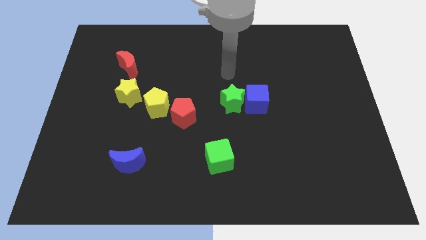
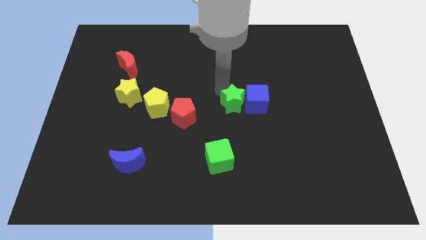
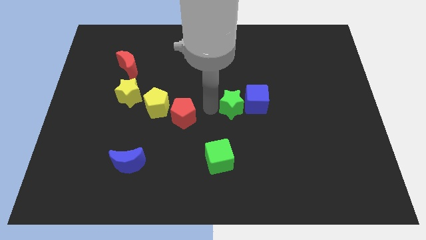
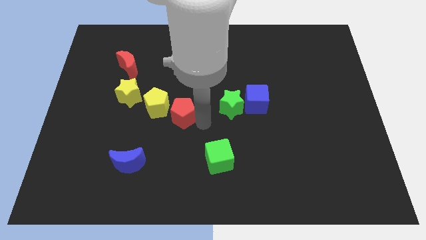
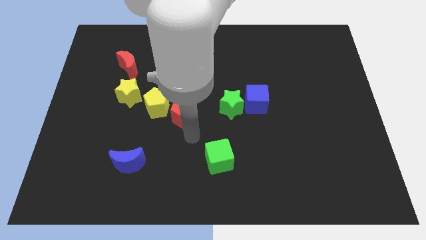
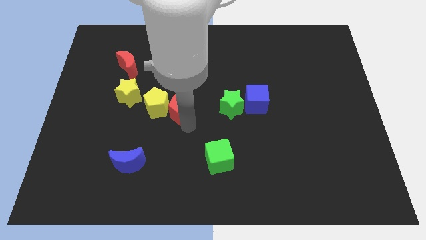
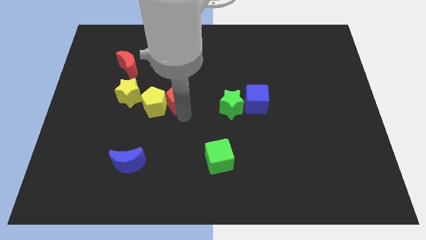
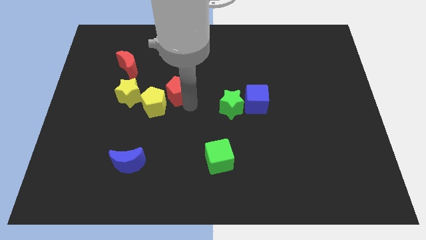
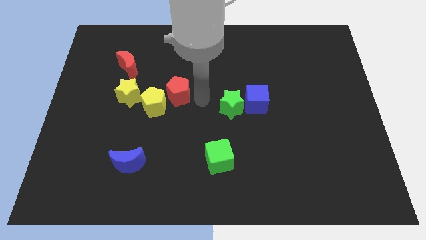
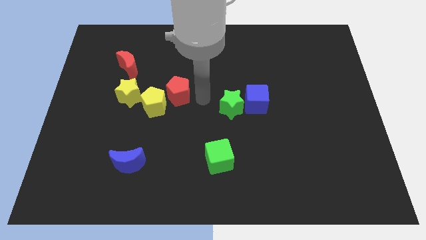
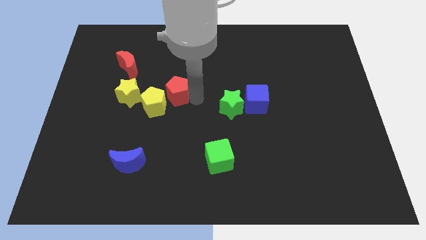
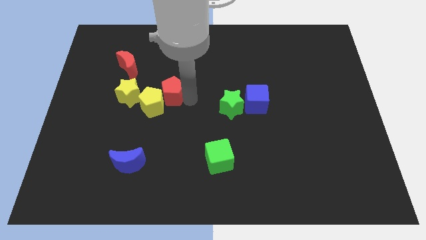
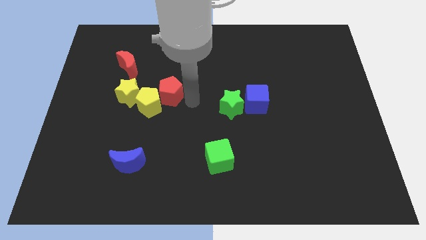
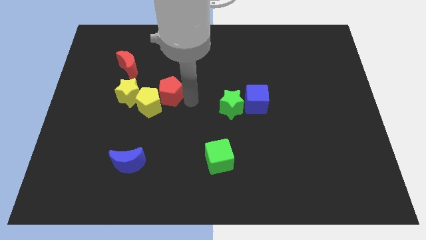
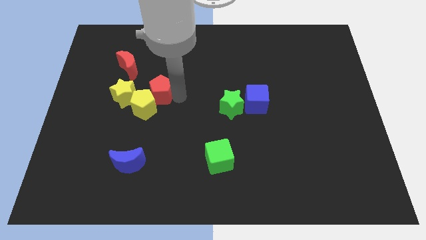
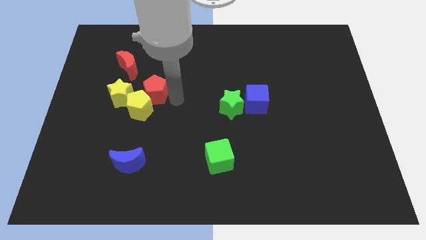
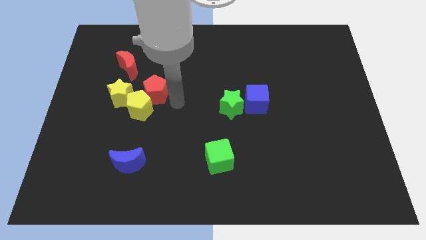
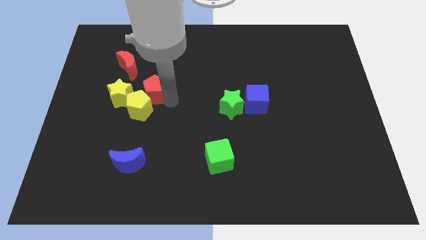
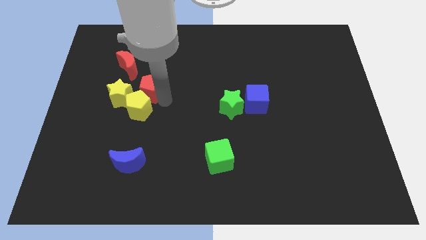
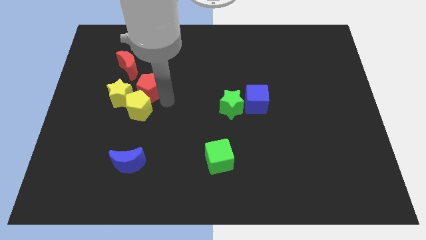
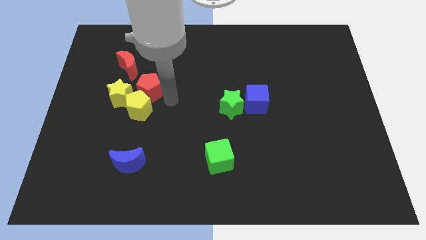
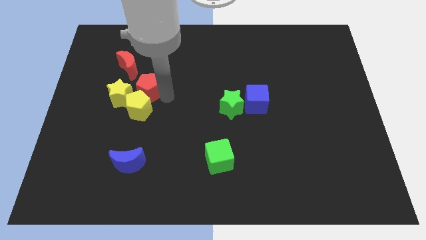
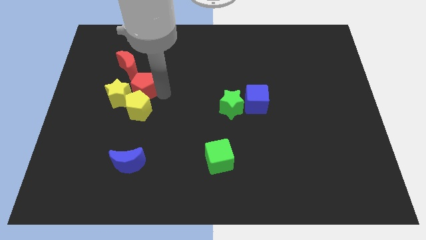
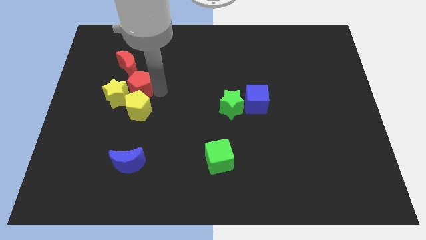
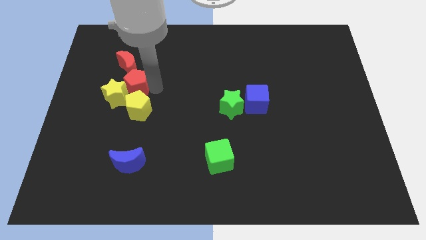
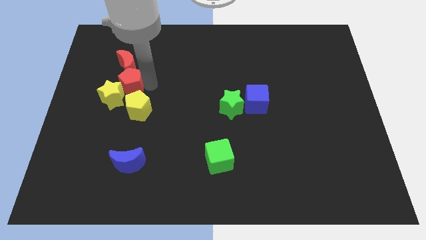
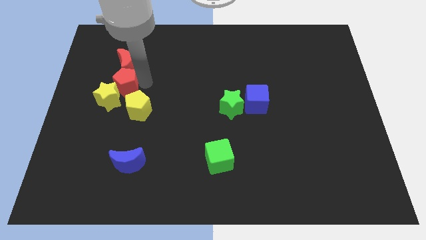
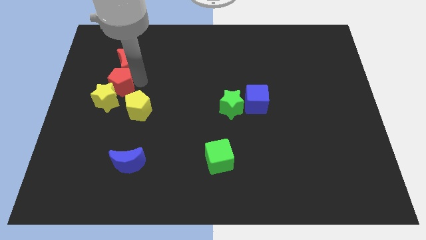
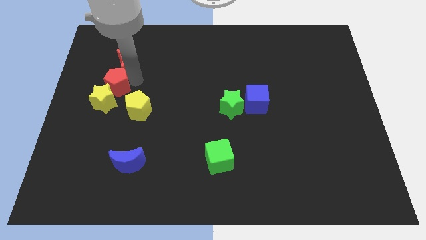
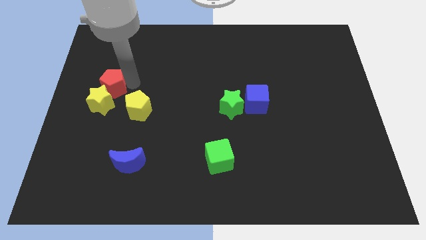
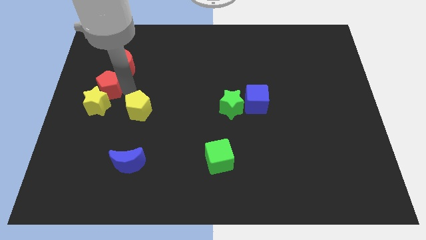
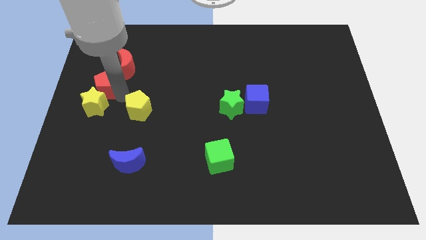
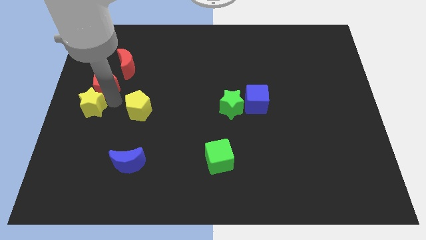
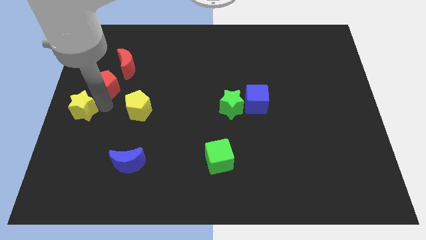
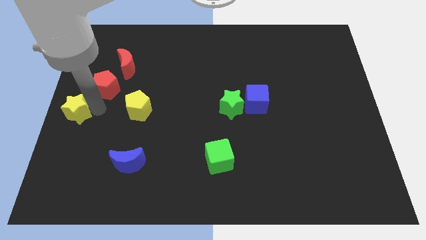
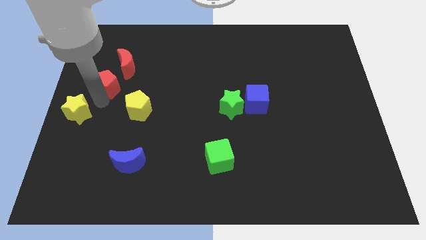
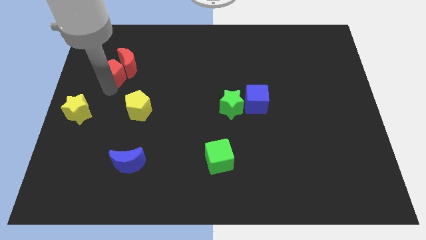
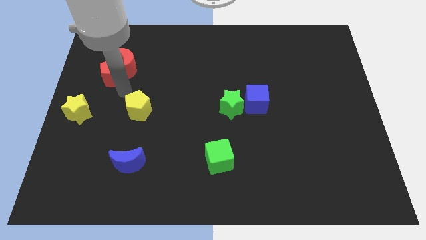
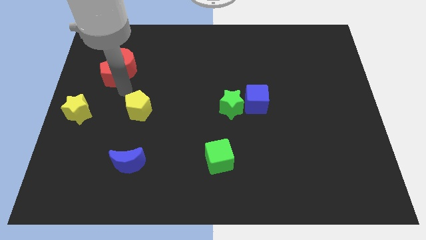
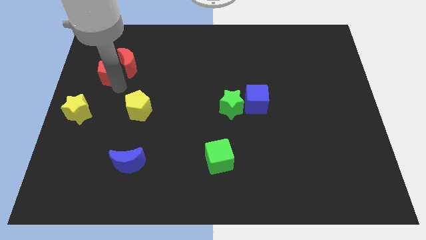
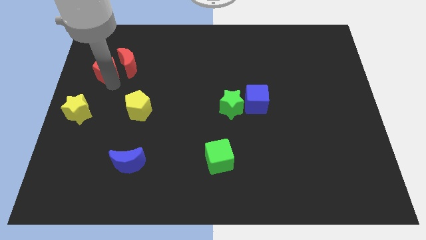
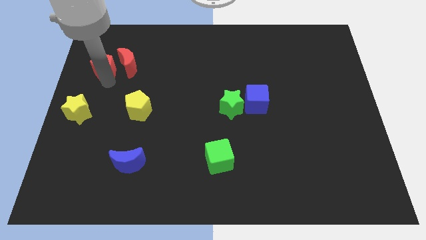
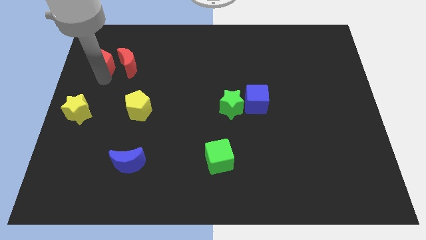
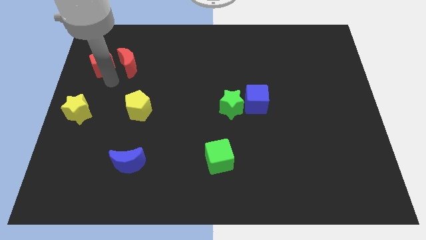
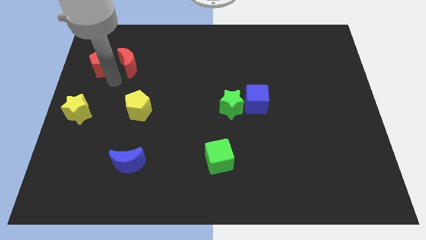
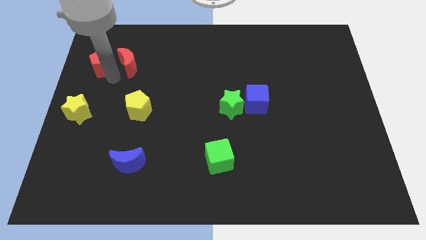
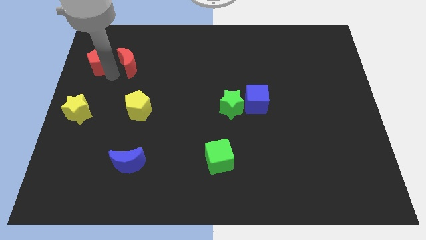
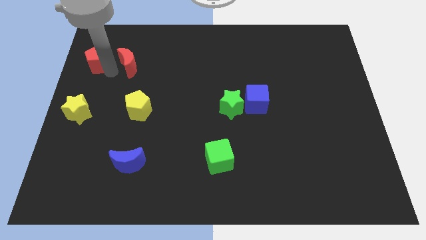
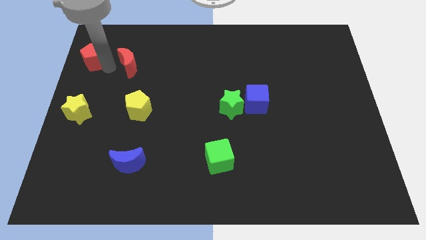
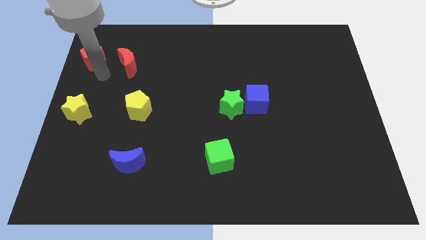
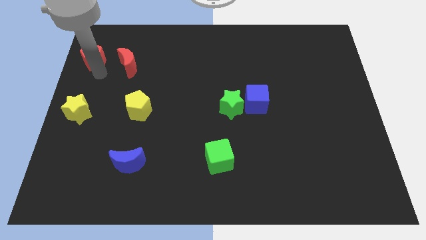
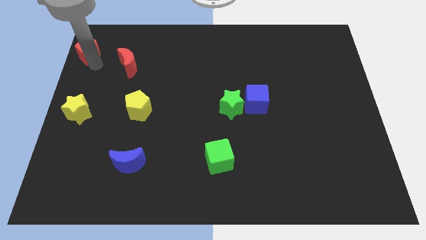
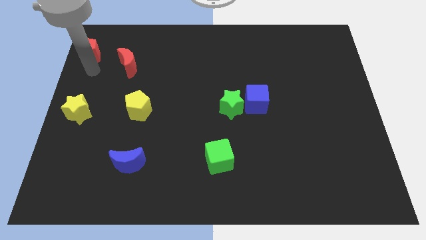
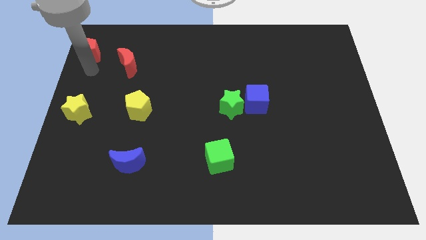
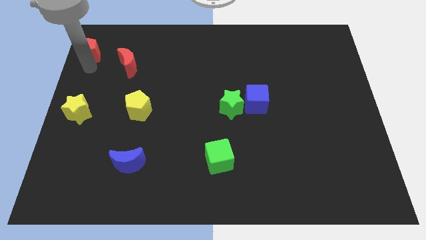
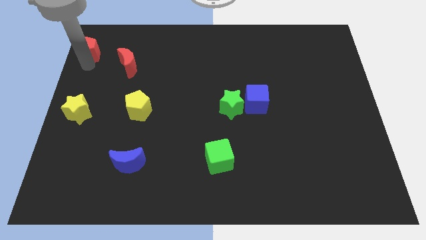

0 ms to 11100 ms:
push the red pentagon to the top left

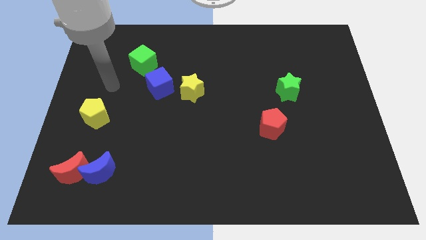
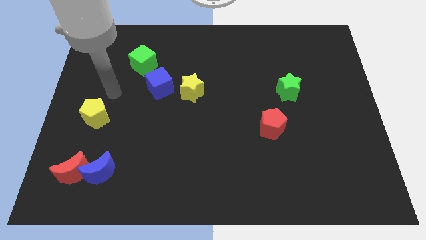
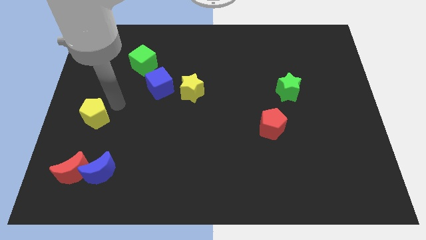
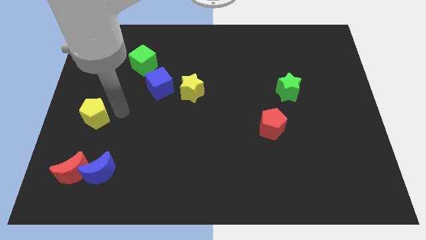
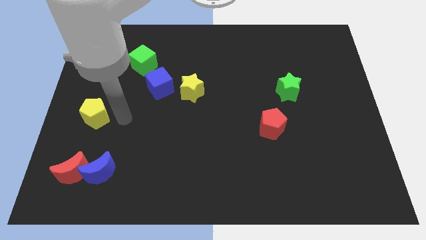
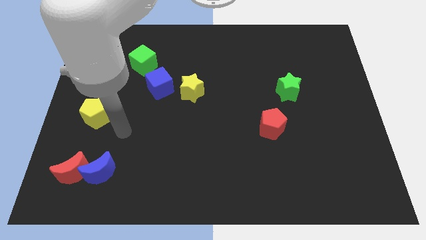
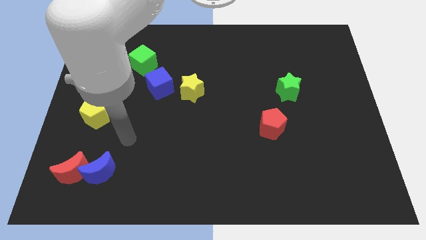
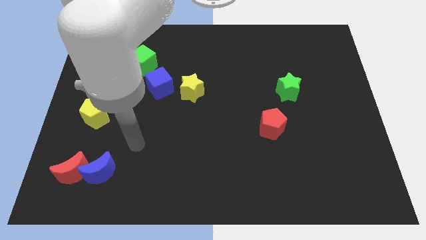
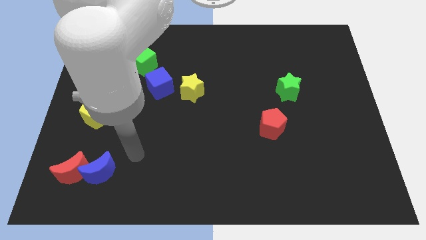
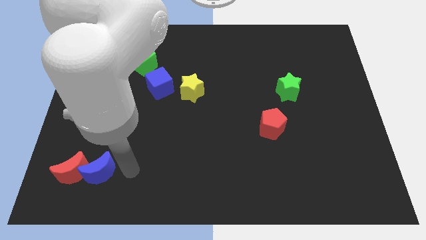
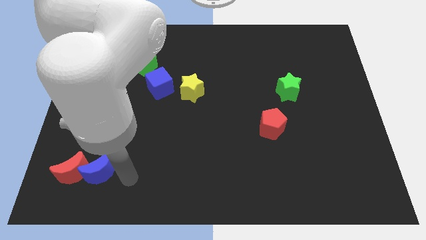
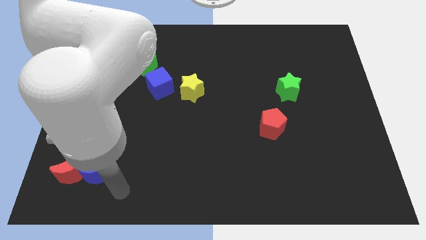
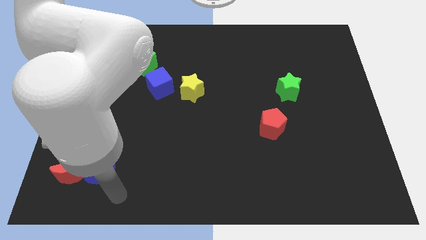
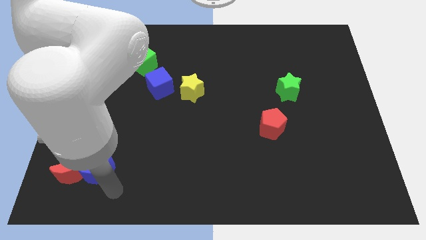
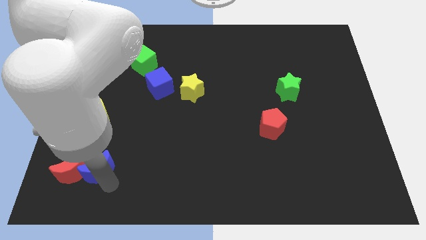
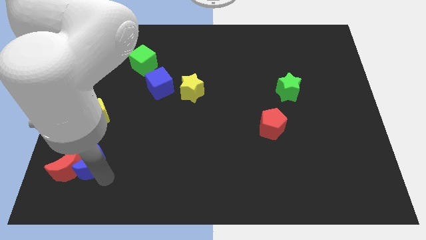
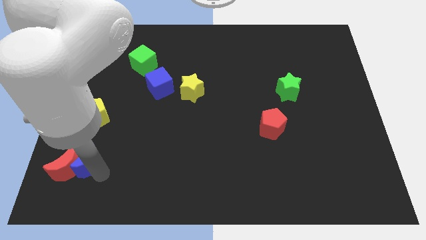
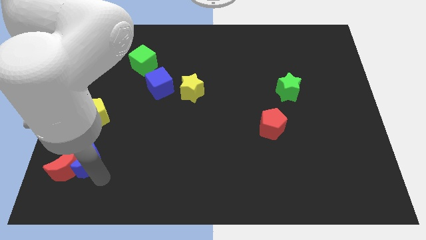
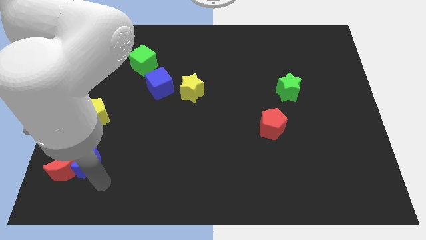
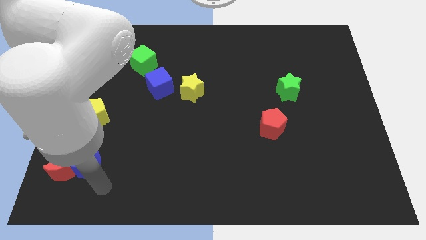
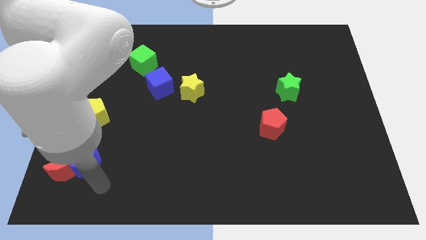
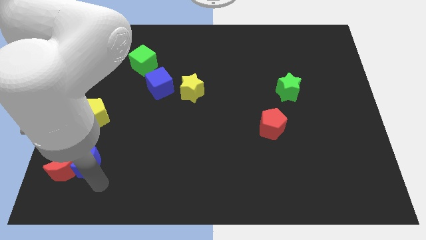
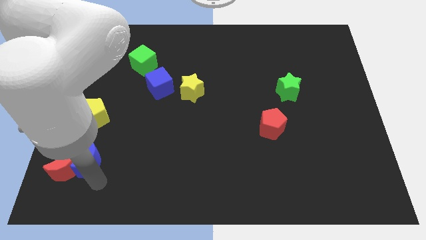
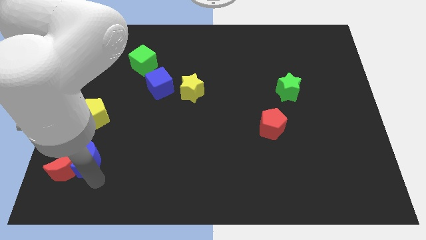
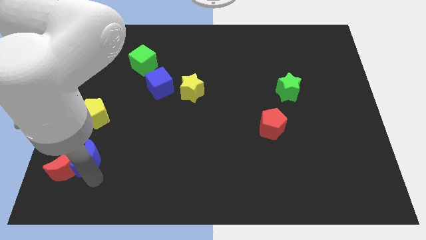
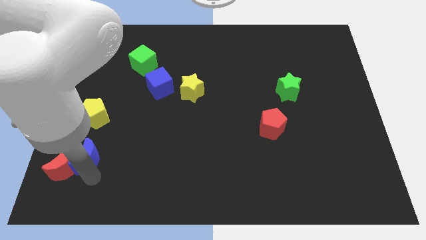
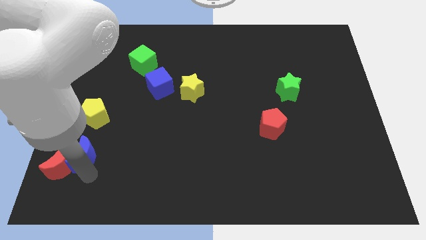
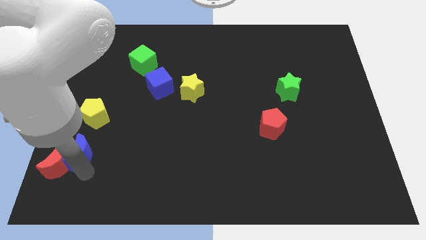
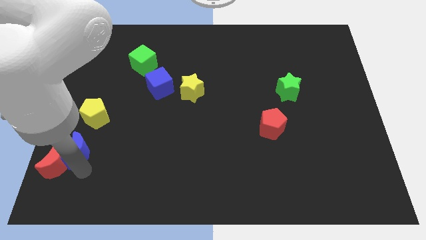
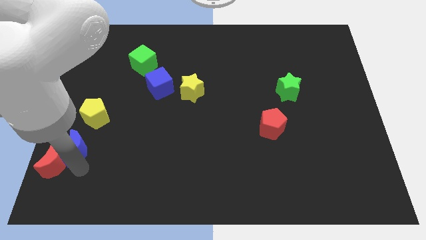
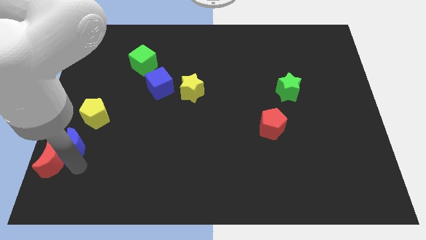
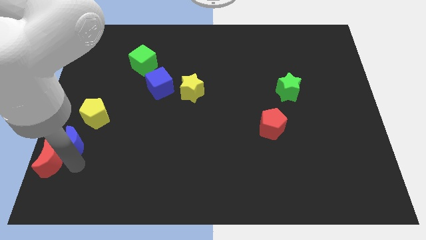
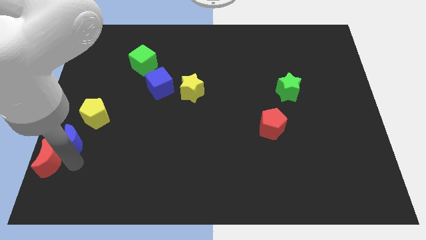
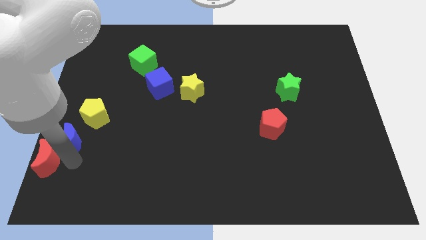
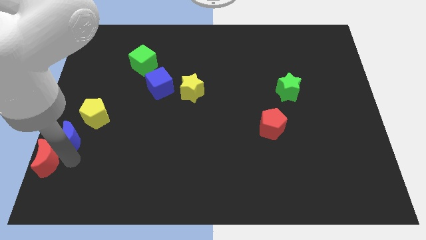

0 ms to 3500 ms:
push the blue moon to the left side of the board
